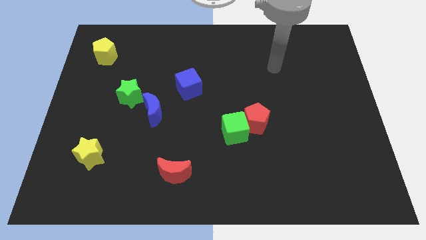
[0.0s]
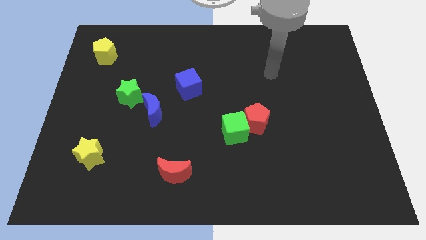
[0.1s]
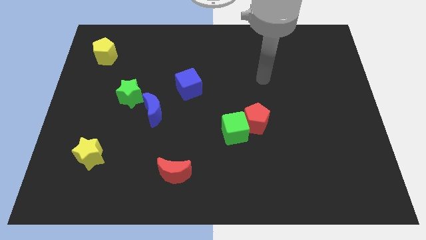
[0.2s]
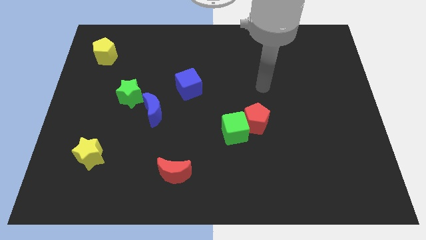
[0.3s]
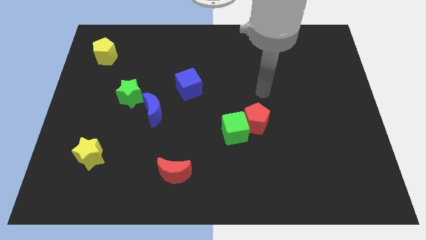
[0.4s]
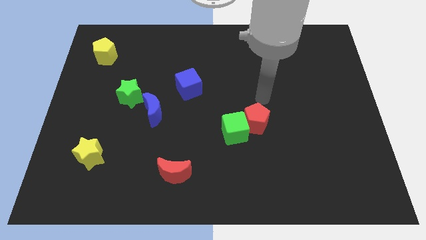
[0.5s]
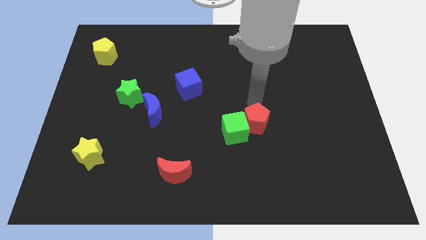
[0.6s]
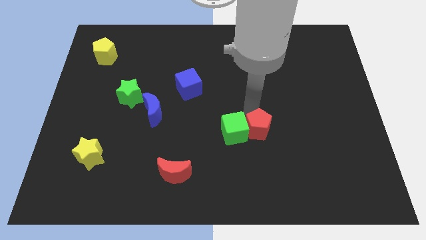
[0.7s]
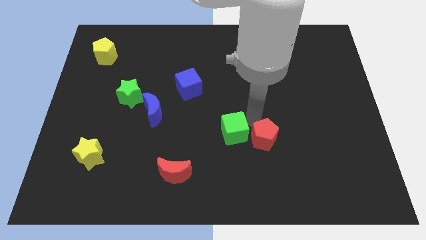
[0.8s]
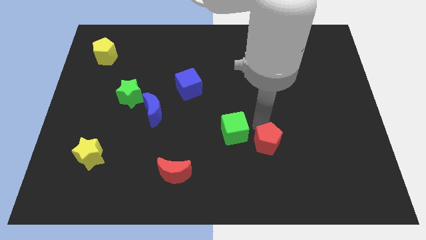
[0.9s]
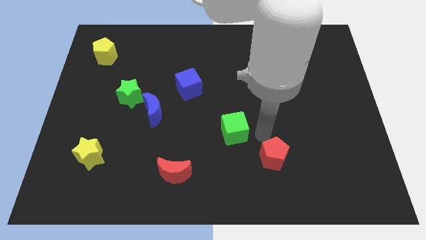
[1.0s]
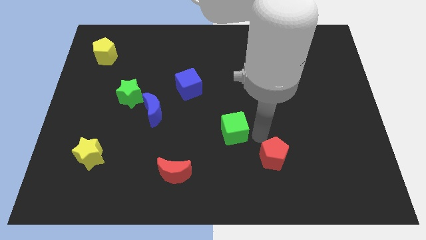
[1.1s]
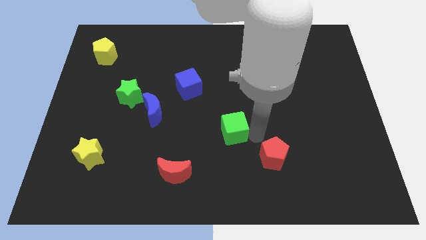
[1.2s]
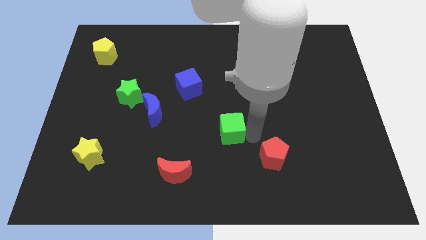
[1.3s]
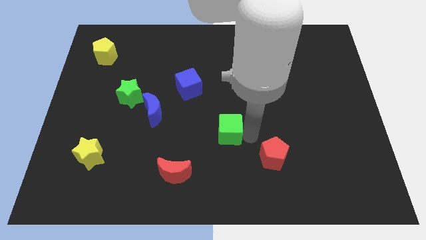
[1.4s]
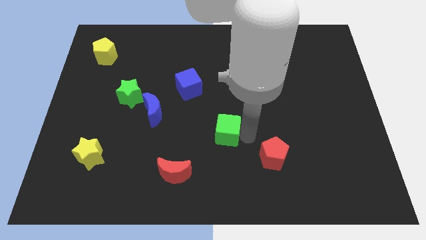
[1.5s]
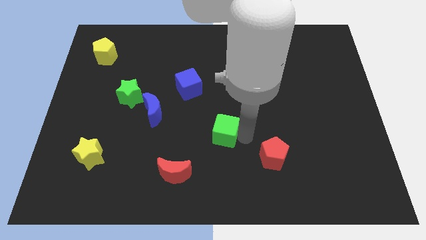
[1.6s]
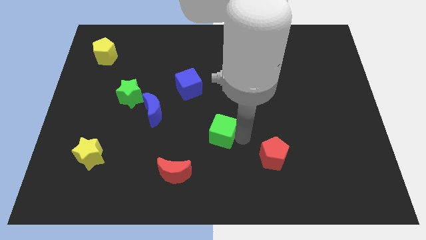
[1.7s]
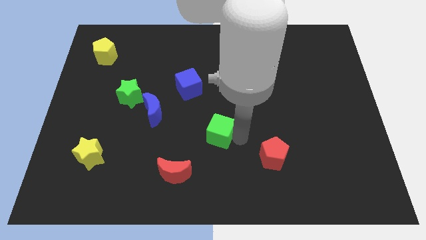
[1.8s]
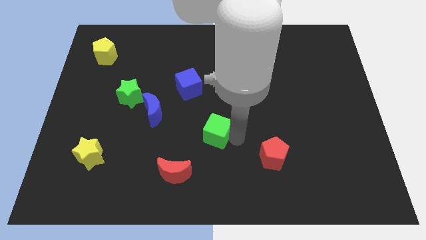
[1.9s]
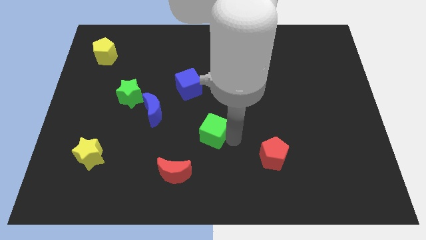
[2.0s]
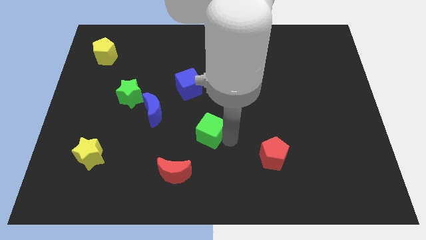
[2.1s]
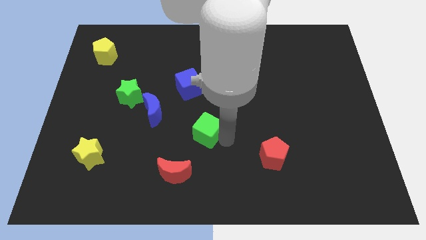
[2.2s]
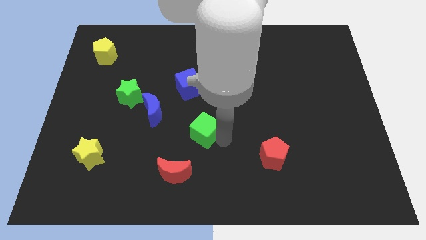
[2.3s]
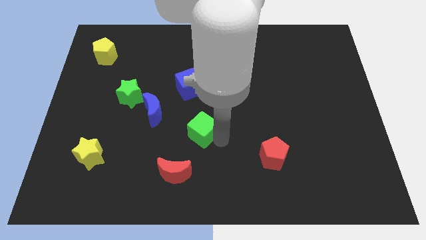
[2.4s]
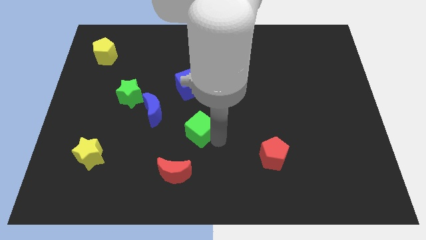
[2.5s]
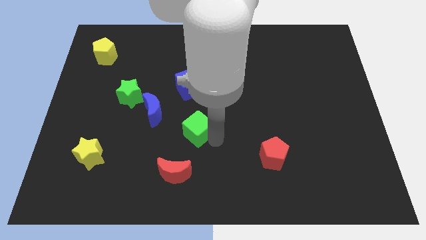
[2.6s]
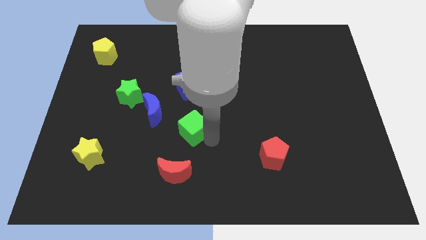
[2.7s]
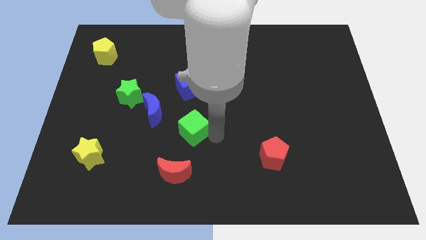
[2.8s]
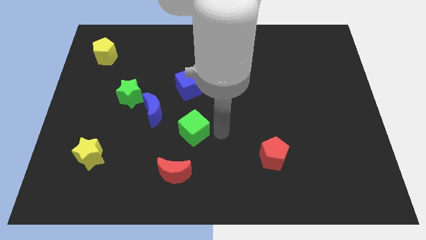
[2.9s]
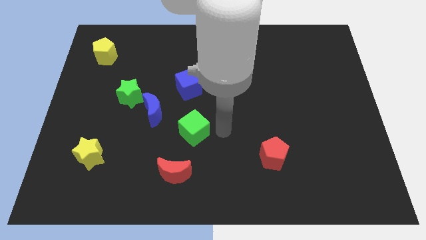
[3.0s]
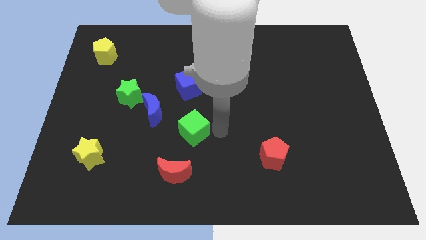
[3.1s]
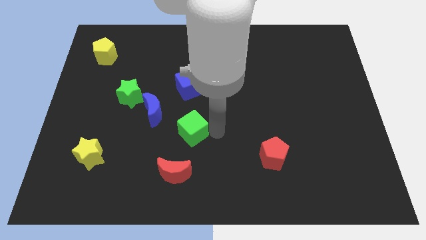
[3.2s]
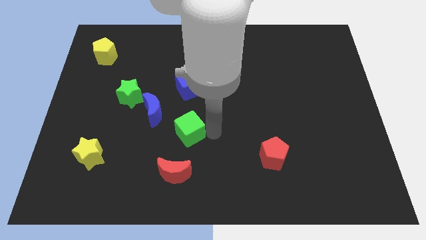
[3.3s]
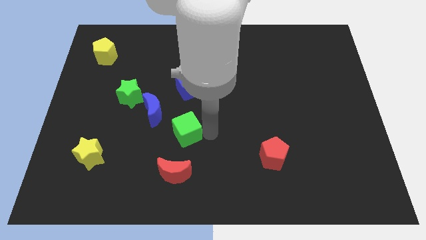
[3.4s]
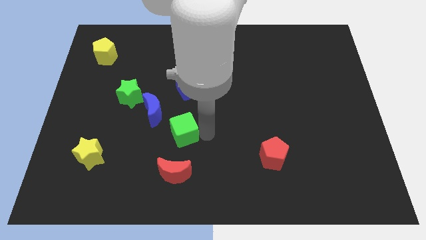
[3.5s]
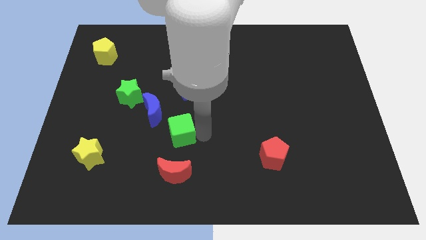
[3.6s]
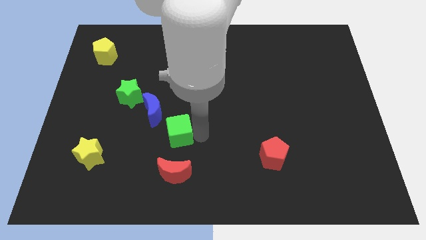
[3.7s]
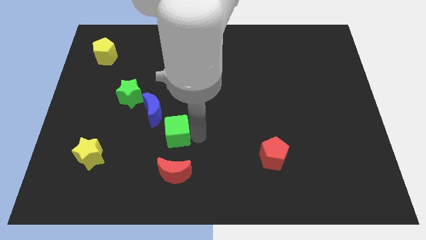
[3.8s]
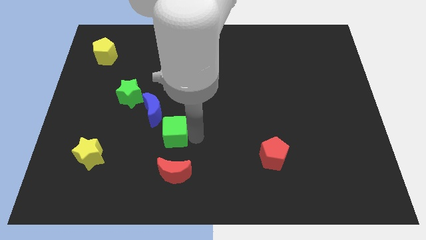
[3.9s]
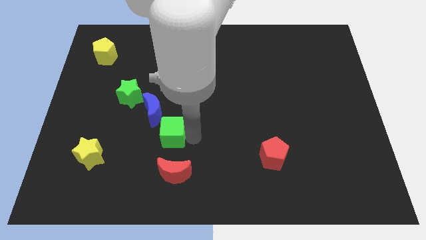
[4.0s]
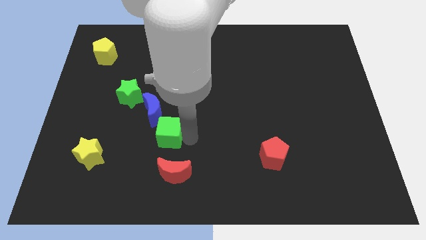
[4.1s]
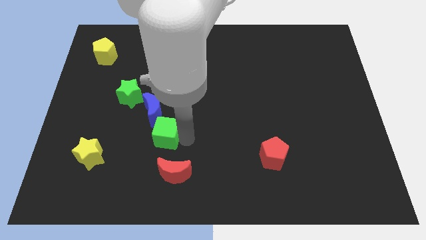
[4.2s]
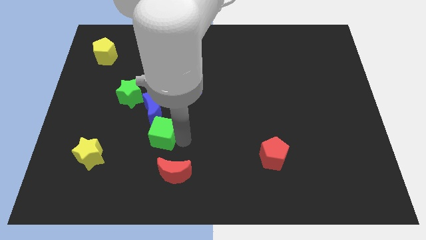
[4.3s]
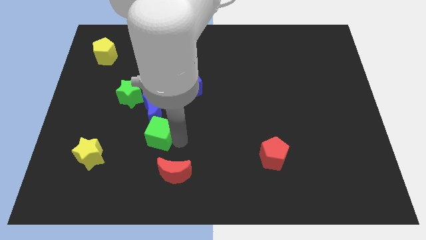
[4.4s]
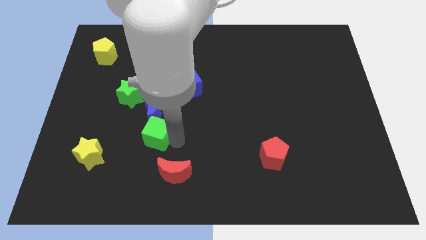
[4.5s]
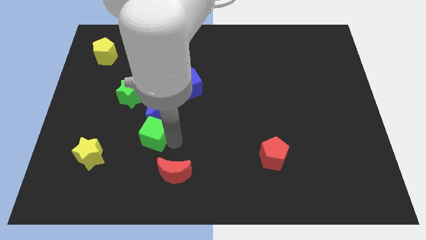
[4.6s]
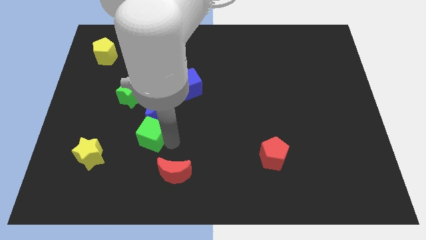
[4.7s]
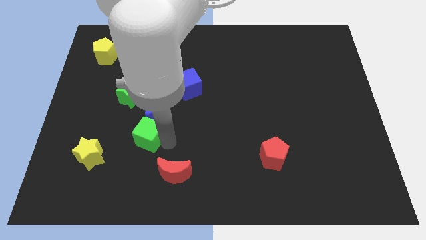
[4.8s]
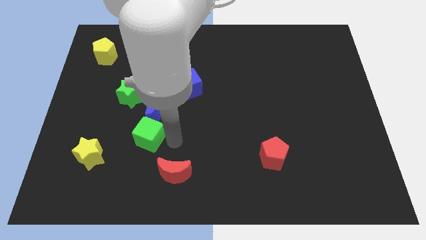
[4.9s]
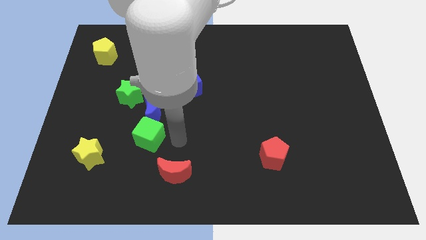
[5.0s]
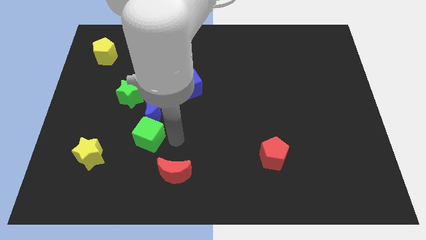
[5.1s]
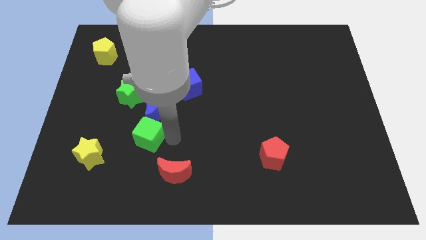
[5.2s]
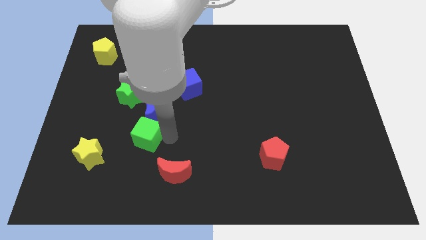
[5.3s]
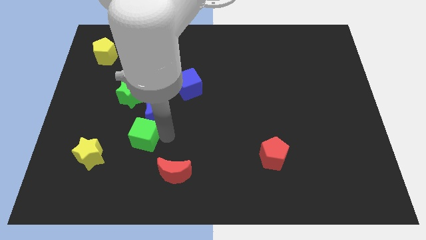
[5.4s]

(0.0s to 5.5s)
slide the green cube left

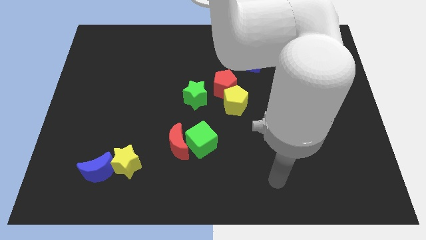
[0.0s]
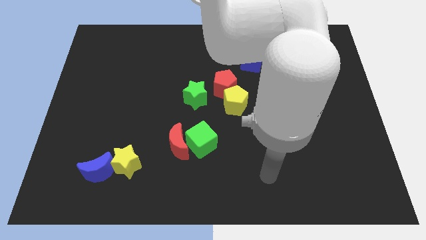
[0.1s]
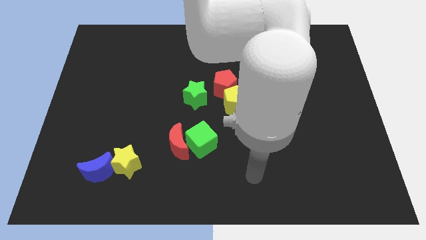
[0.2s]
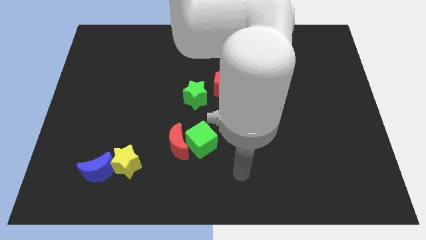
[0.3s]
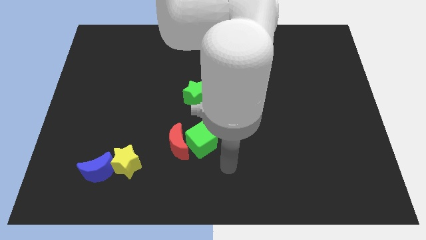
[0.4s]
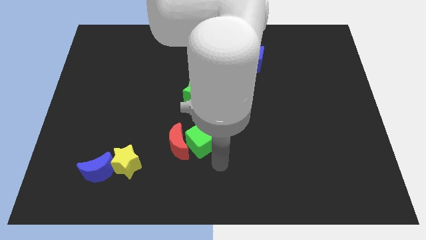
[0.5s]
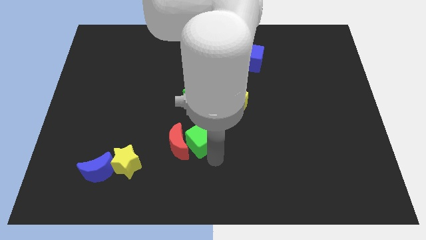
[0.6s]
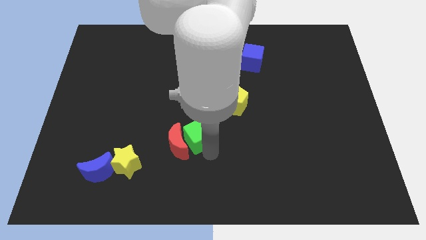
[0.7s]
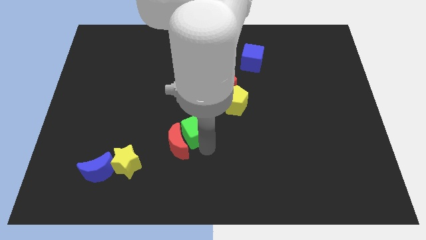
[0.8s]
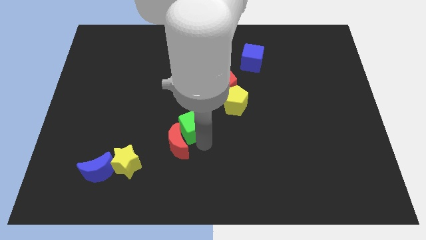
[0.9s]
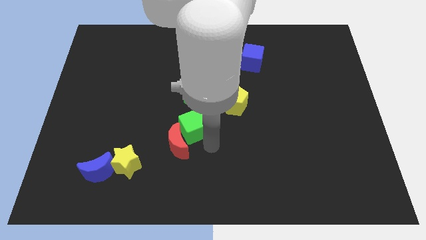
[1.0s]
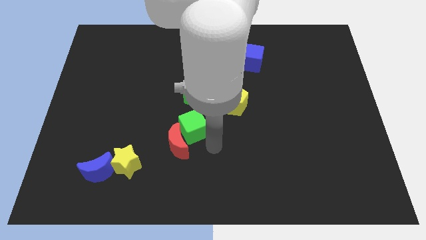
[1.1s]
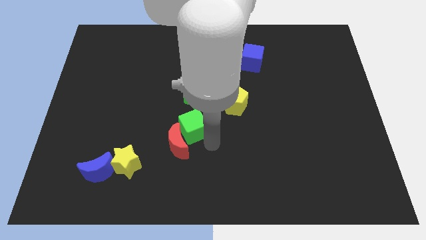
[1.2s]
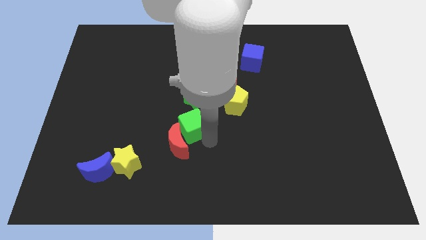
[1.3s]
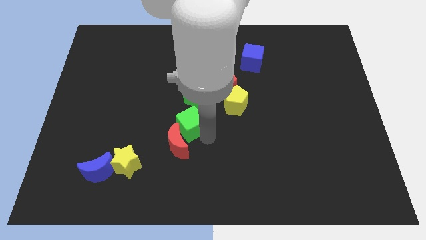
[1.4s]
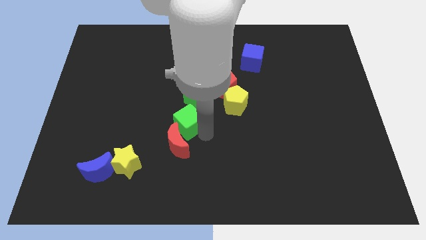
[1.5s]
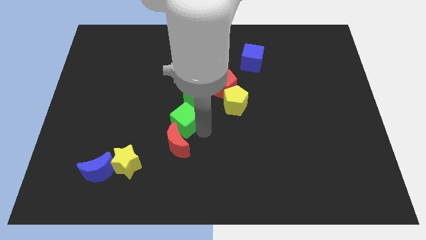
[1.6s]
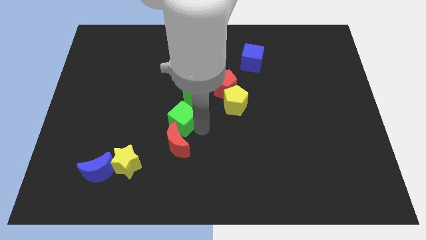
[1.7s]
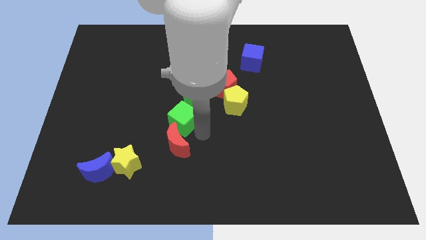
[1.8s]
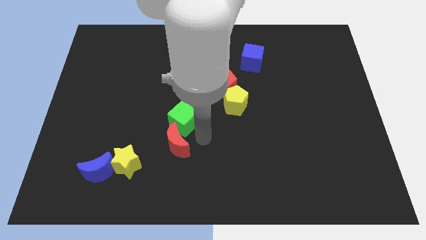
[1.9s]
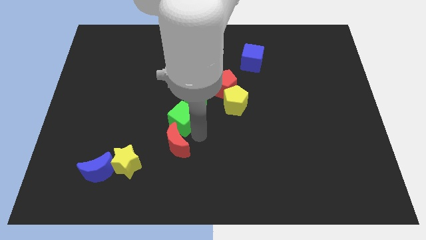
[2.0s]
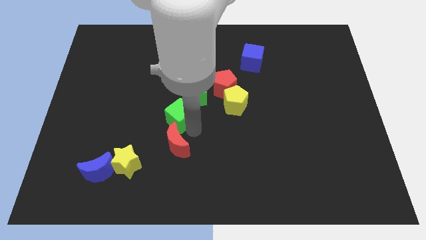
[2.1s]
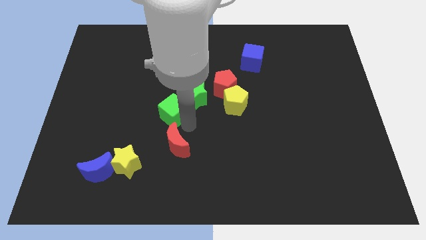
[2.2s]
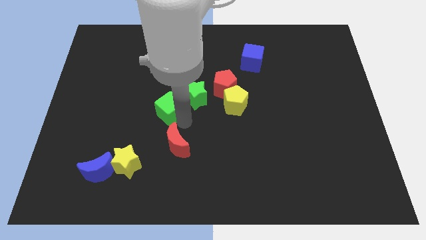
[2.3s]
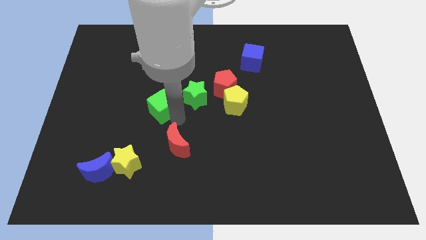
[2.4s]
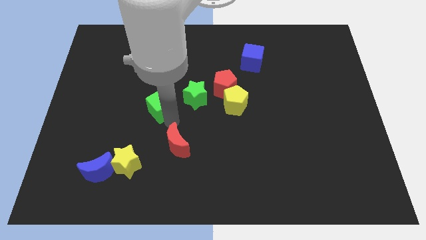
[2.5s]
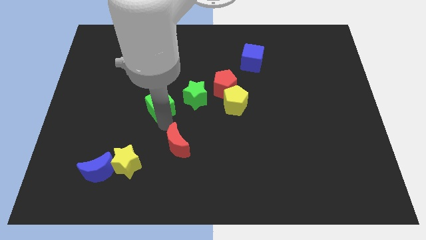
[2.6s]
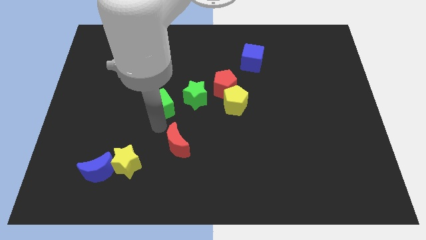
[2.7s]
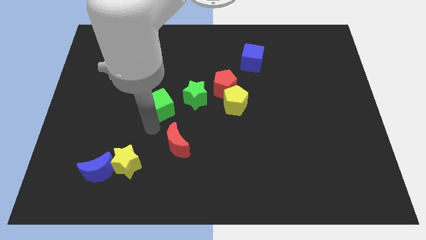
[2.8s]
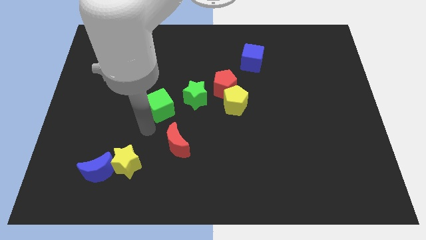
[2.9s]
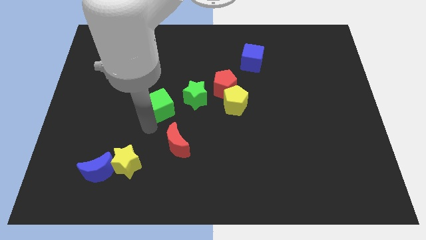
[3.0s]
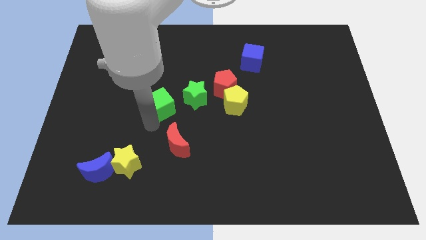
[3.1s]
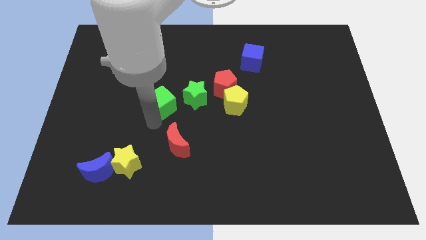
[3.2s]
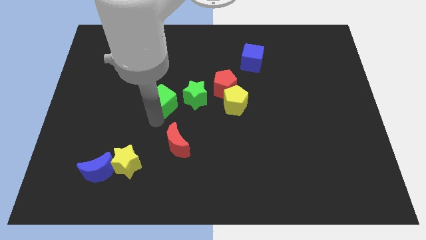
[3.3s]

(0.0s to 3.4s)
move the green cube up somewhat
